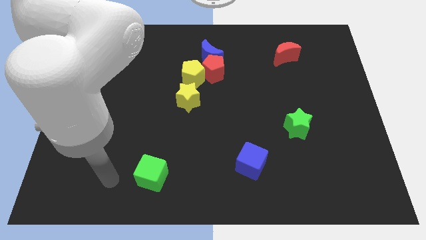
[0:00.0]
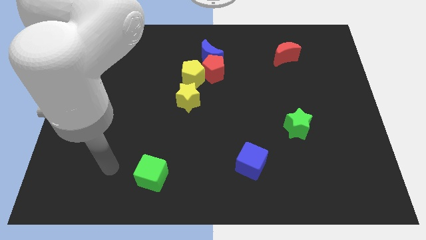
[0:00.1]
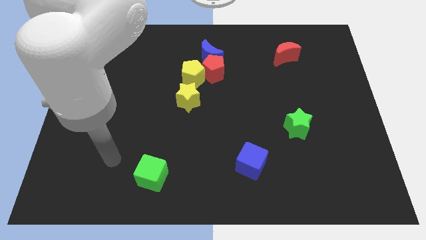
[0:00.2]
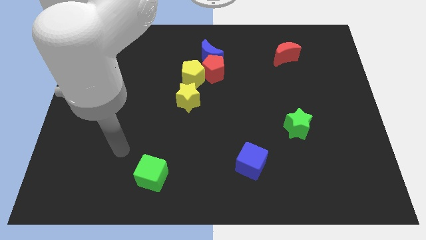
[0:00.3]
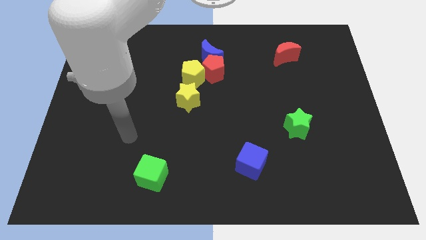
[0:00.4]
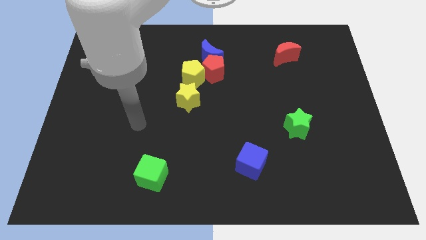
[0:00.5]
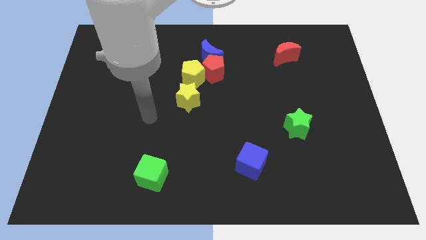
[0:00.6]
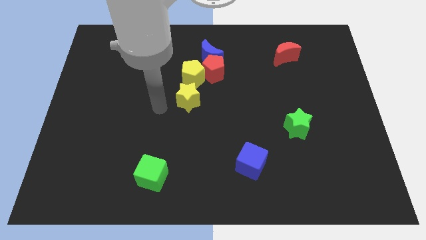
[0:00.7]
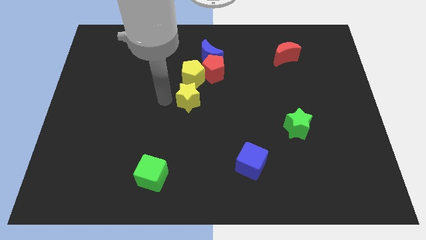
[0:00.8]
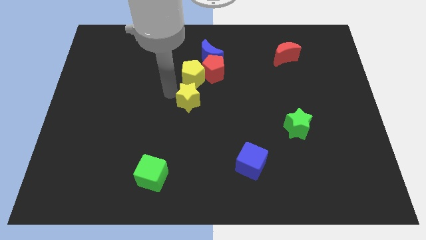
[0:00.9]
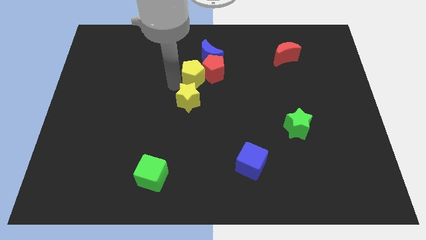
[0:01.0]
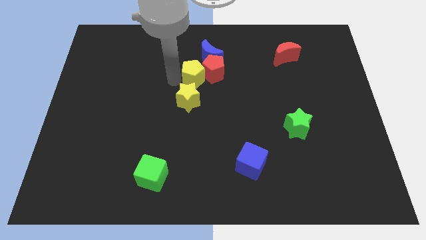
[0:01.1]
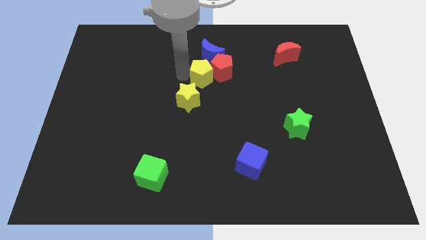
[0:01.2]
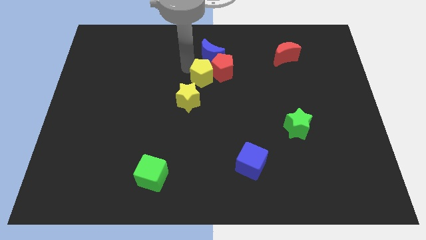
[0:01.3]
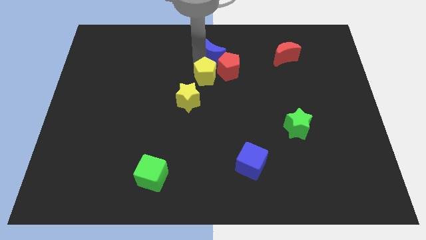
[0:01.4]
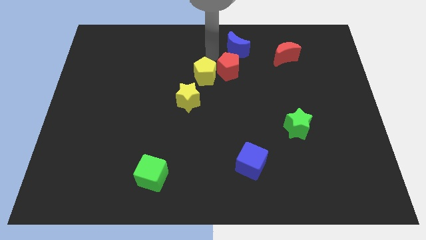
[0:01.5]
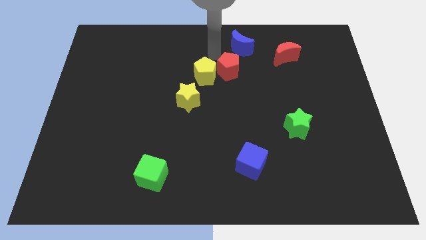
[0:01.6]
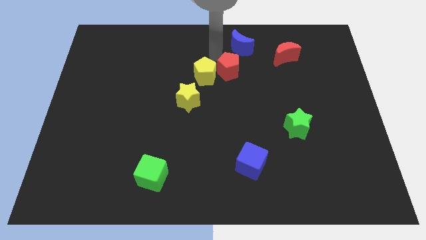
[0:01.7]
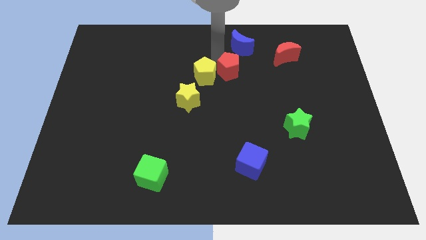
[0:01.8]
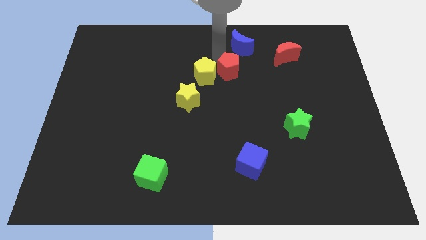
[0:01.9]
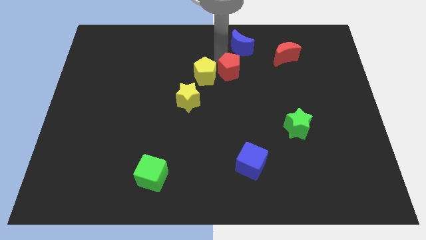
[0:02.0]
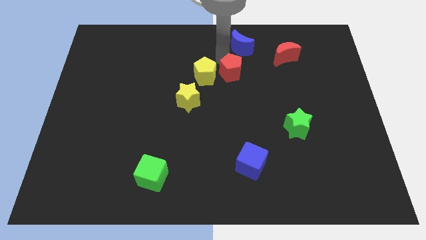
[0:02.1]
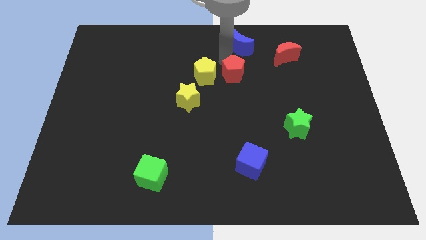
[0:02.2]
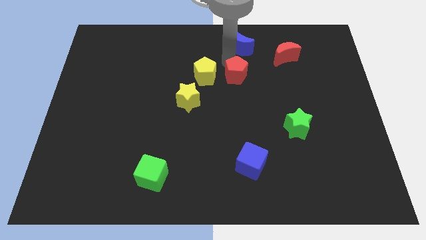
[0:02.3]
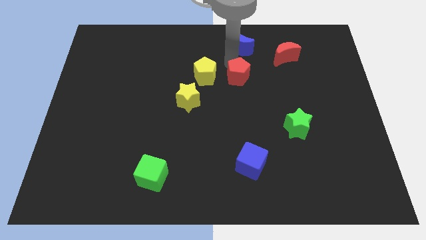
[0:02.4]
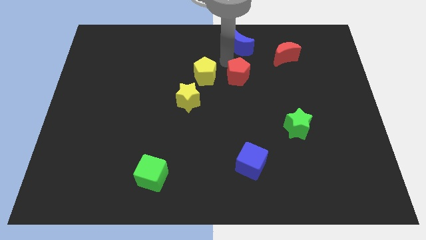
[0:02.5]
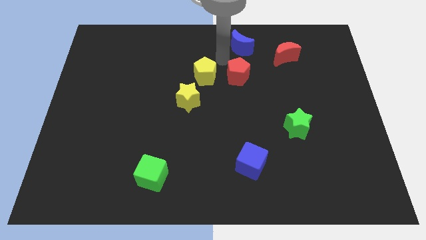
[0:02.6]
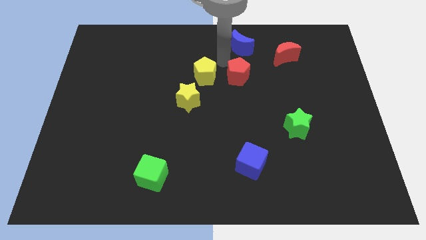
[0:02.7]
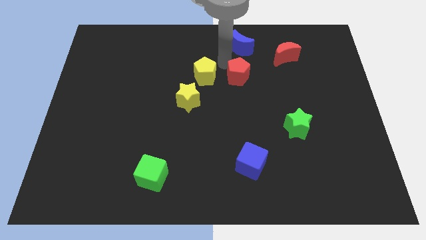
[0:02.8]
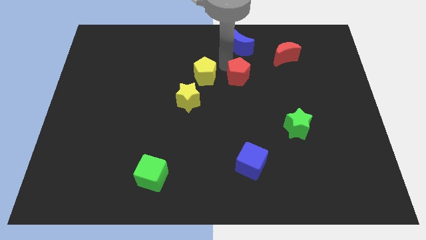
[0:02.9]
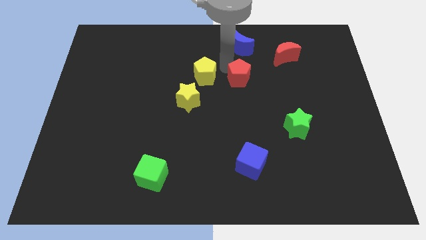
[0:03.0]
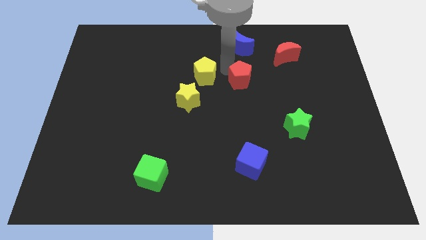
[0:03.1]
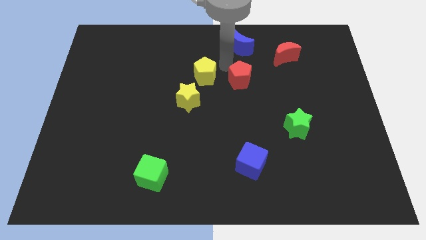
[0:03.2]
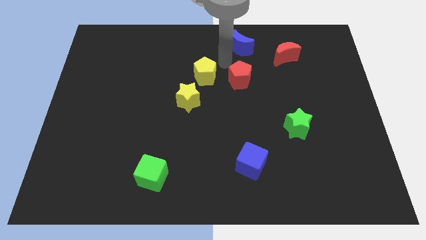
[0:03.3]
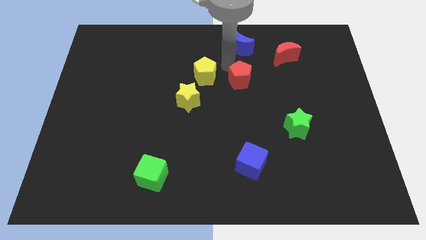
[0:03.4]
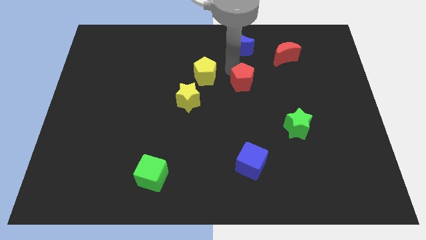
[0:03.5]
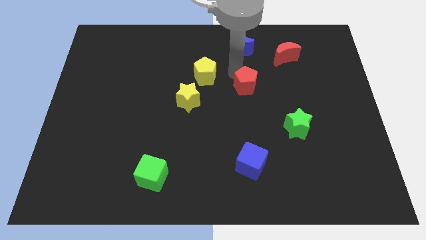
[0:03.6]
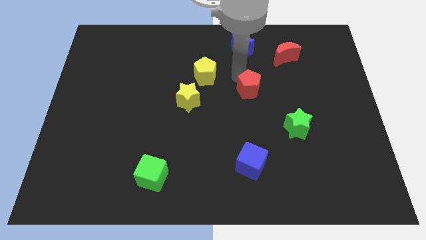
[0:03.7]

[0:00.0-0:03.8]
separate the red pentagon from the blue moon and yellow pentagon

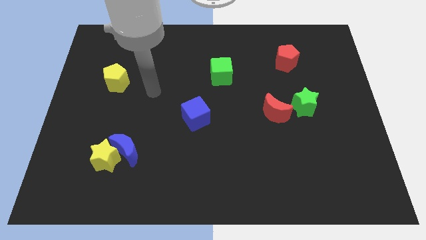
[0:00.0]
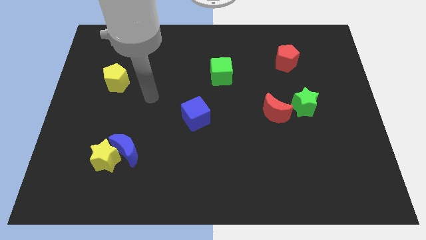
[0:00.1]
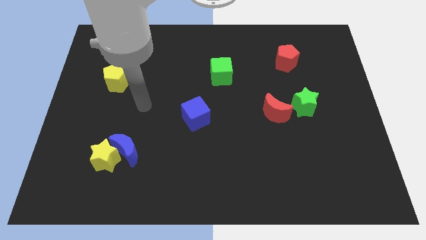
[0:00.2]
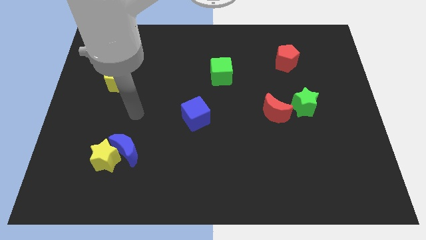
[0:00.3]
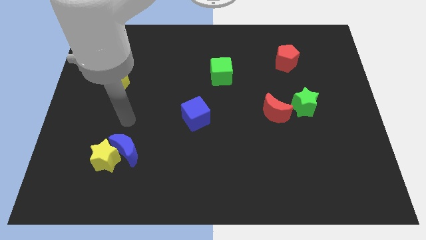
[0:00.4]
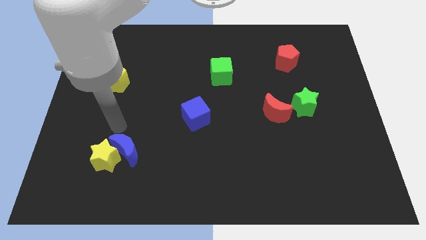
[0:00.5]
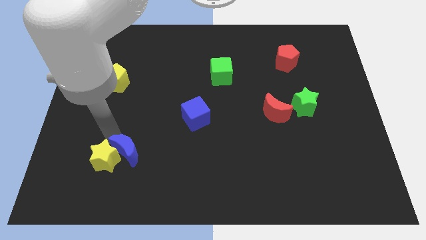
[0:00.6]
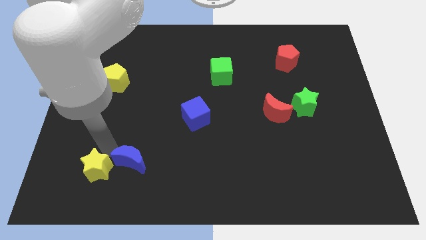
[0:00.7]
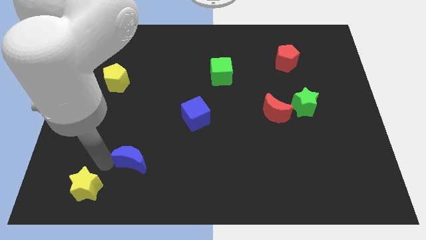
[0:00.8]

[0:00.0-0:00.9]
move the blue moon away from the yellow star

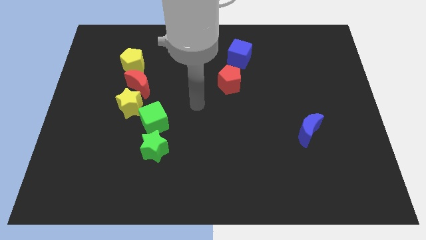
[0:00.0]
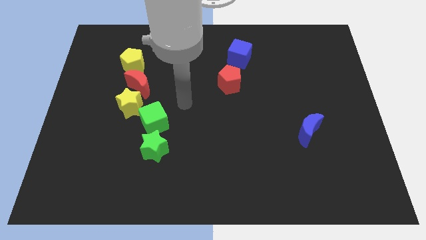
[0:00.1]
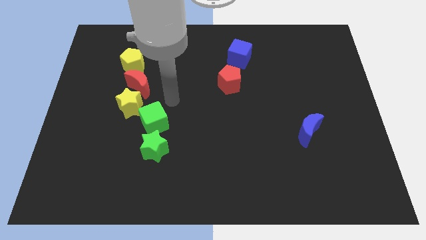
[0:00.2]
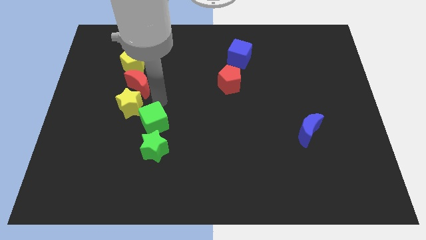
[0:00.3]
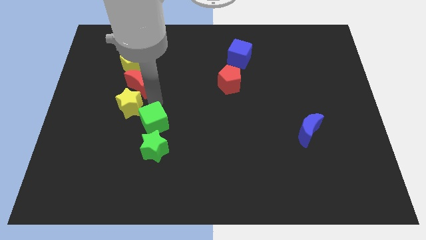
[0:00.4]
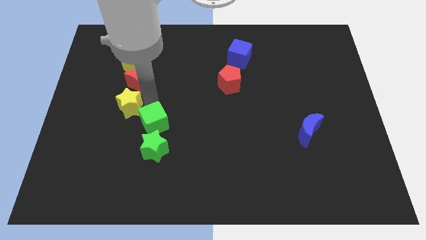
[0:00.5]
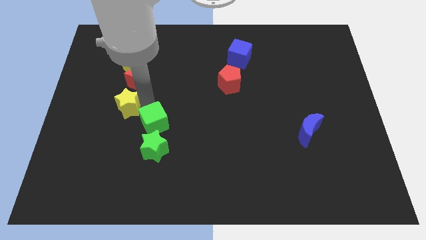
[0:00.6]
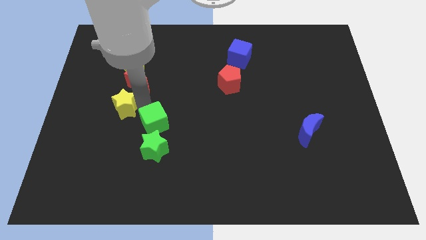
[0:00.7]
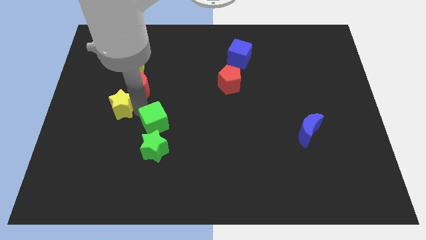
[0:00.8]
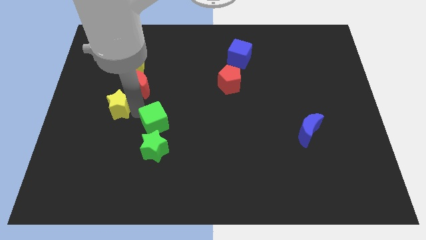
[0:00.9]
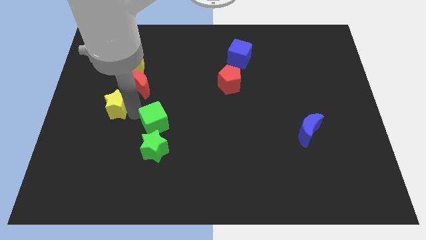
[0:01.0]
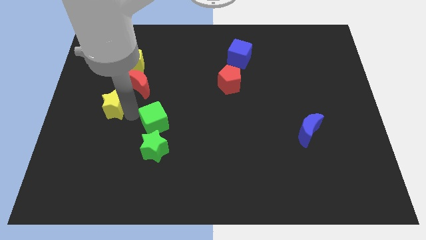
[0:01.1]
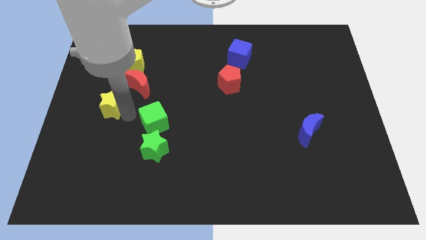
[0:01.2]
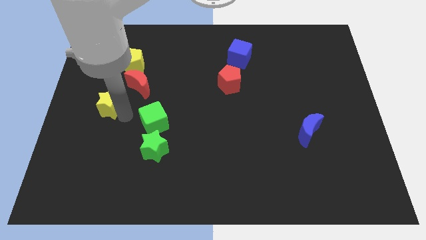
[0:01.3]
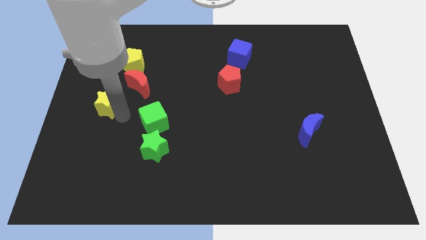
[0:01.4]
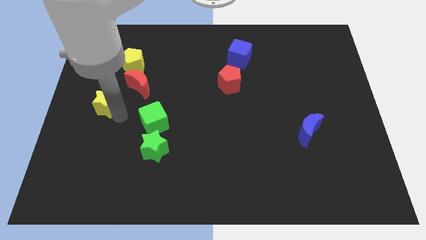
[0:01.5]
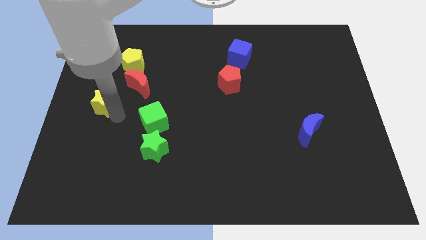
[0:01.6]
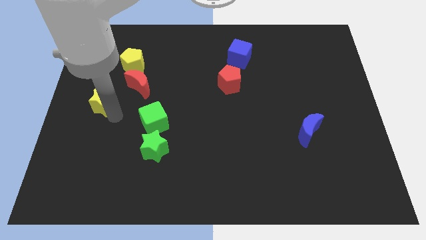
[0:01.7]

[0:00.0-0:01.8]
separate the yellow star from the red moon and green cube

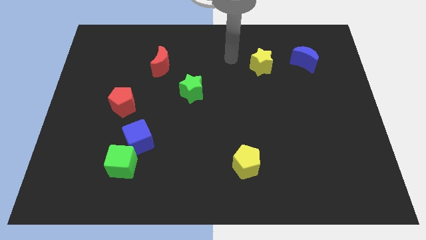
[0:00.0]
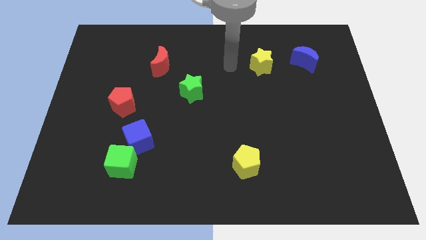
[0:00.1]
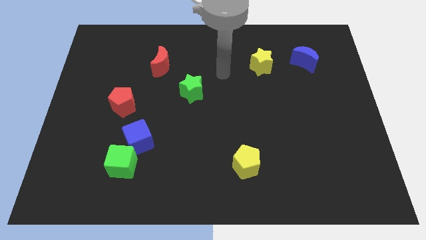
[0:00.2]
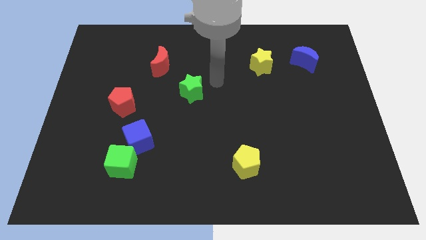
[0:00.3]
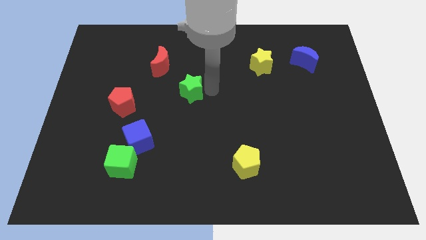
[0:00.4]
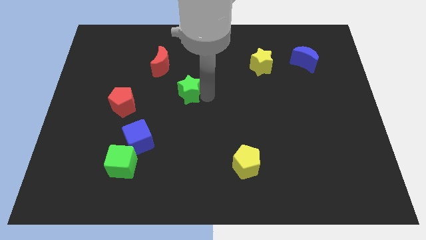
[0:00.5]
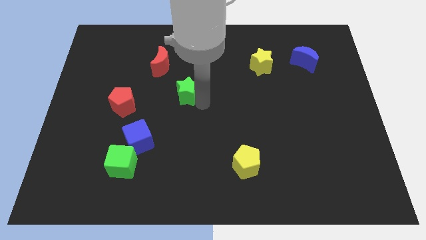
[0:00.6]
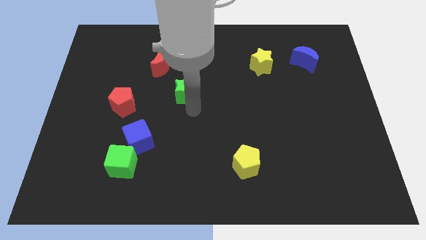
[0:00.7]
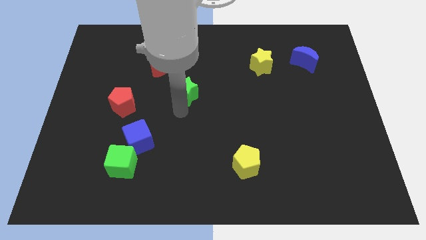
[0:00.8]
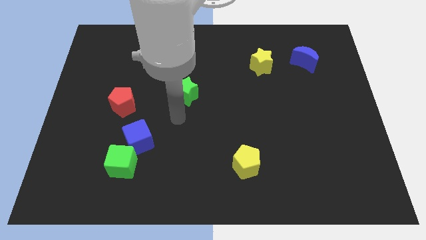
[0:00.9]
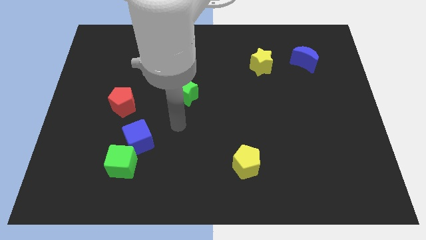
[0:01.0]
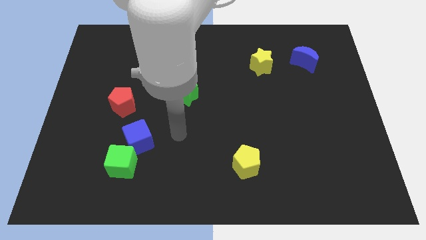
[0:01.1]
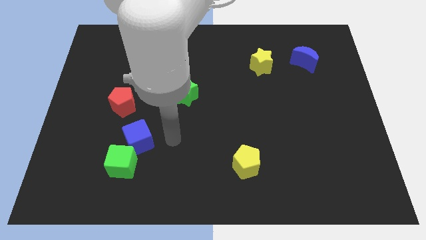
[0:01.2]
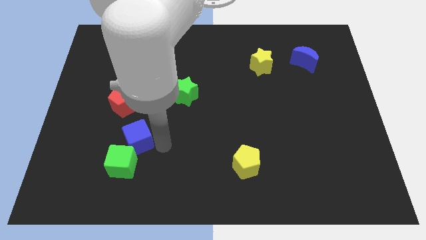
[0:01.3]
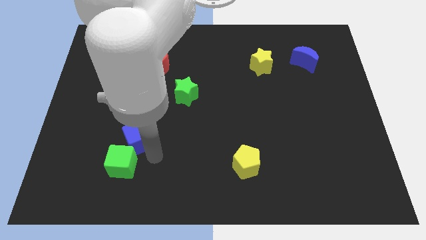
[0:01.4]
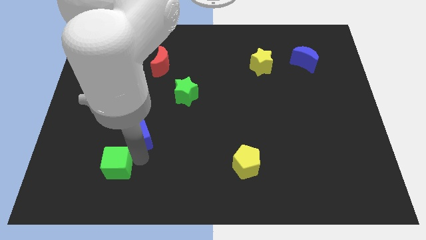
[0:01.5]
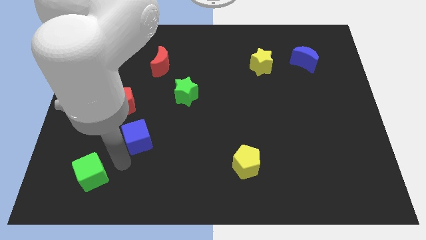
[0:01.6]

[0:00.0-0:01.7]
separate the blue cube from the green cube

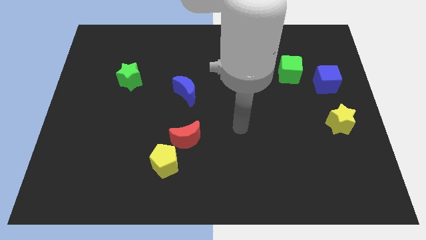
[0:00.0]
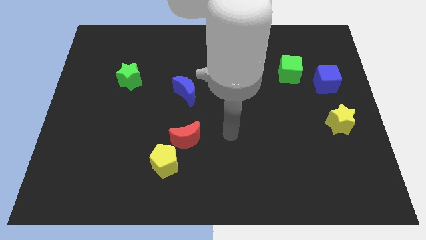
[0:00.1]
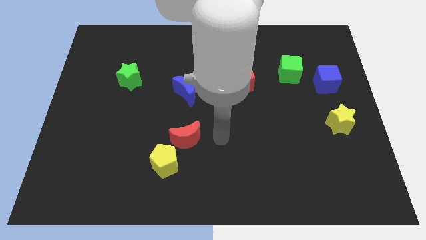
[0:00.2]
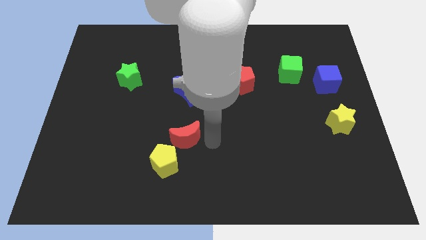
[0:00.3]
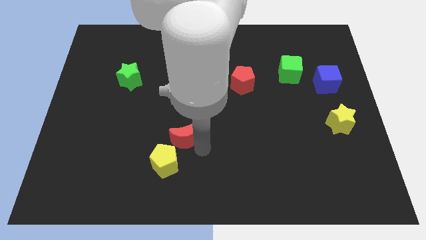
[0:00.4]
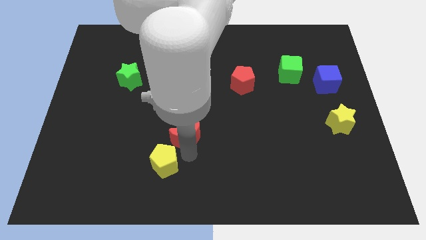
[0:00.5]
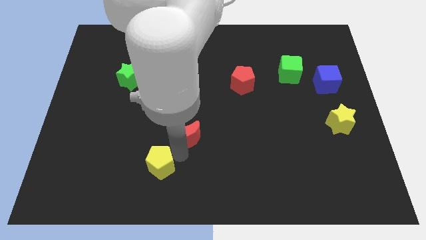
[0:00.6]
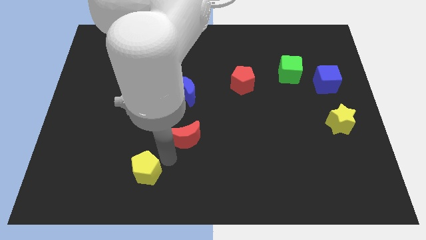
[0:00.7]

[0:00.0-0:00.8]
separate the red moon from the yellow pentagon

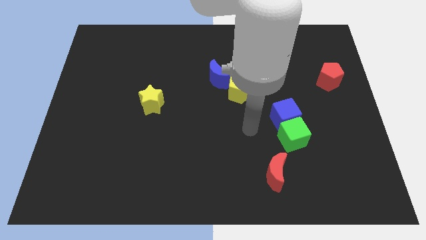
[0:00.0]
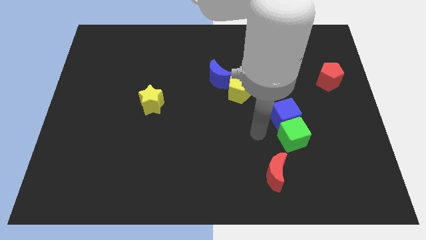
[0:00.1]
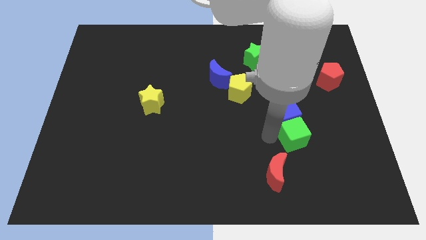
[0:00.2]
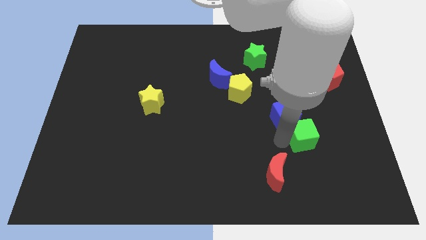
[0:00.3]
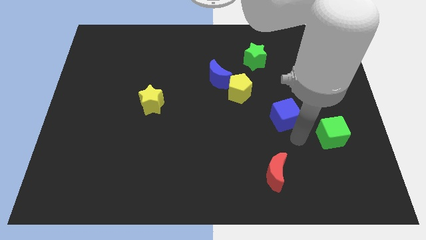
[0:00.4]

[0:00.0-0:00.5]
move the blue cube away from the green cube
